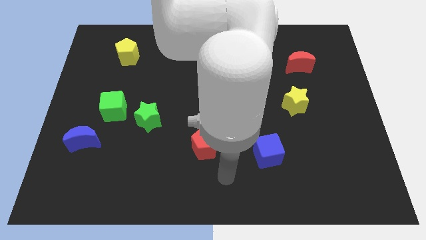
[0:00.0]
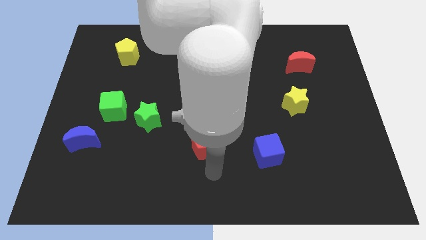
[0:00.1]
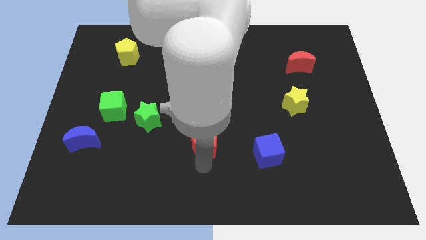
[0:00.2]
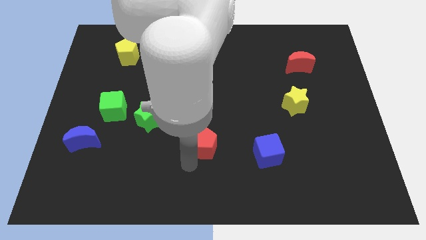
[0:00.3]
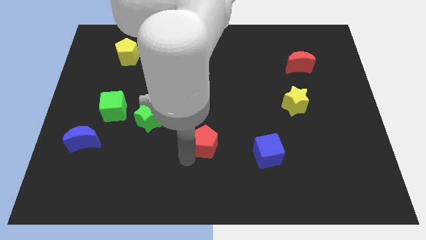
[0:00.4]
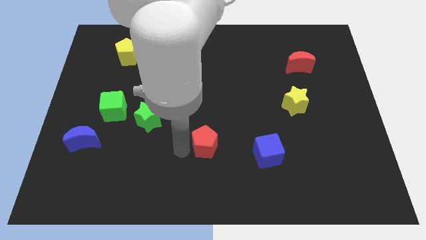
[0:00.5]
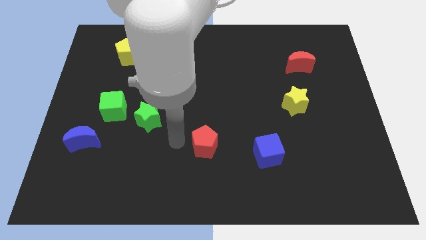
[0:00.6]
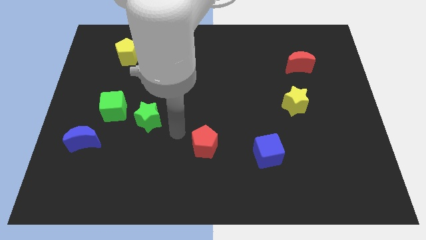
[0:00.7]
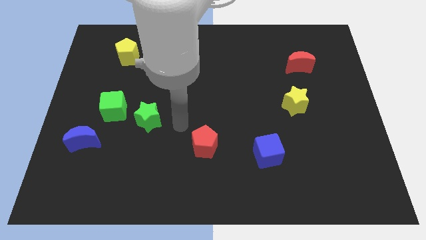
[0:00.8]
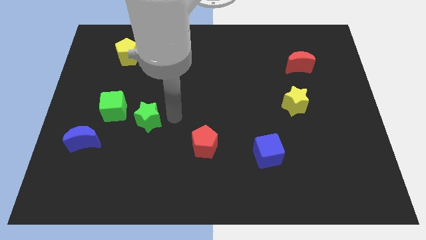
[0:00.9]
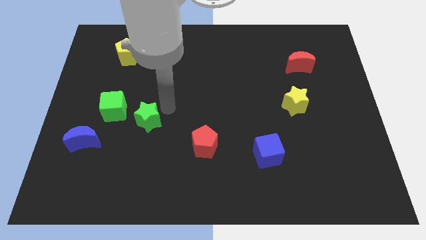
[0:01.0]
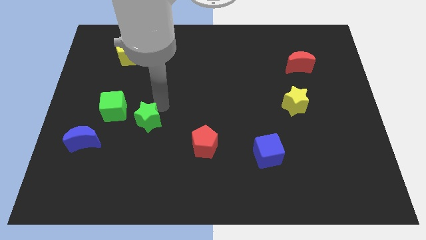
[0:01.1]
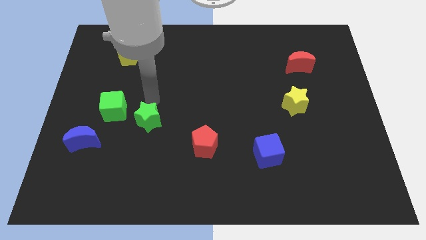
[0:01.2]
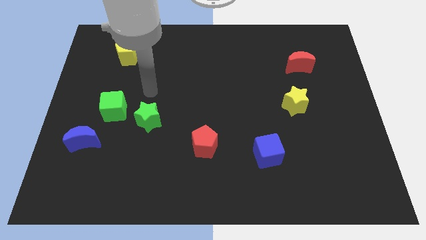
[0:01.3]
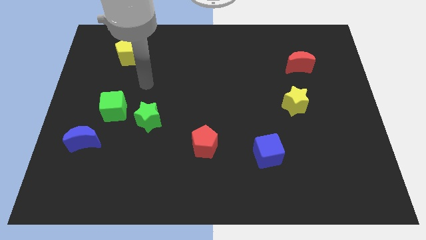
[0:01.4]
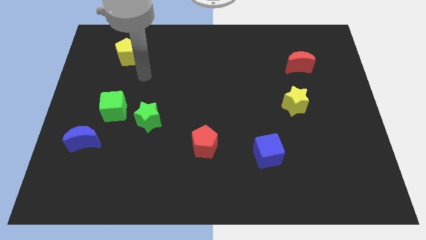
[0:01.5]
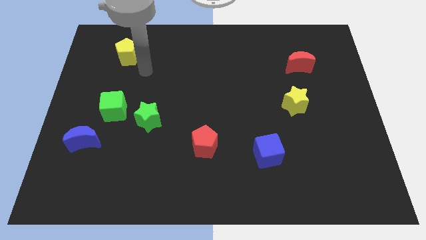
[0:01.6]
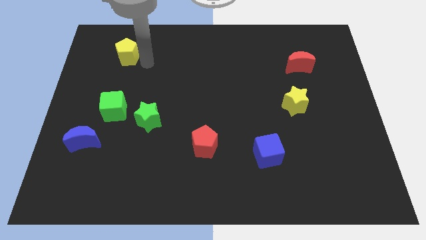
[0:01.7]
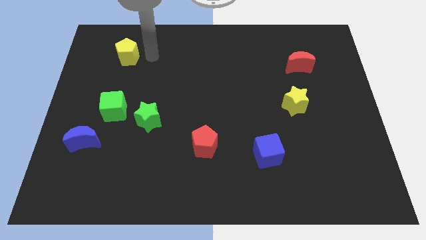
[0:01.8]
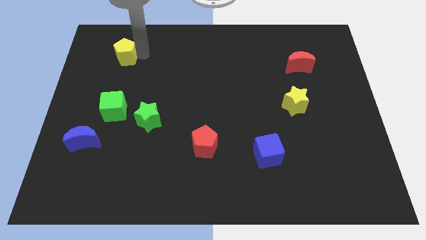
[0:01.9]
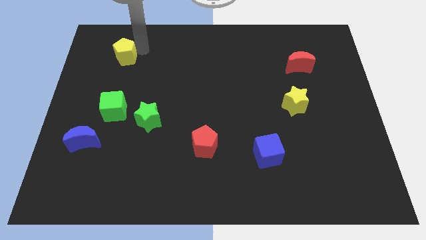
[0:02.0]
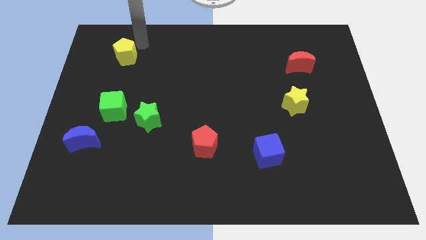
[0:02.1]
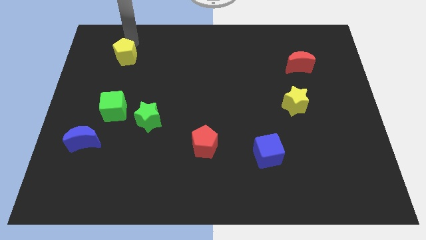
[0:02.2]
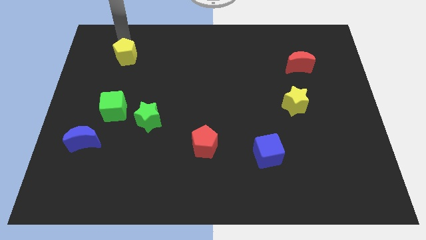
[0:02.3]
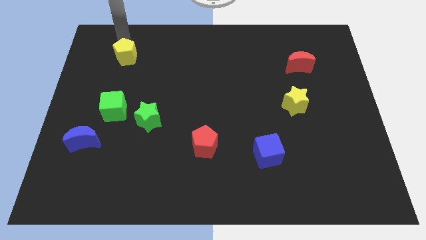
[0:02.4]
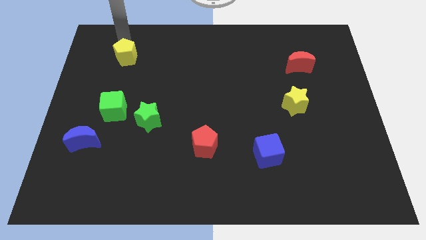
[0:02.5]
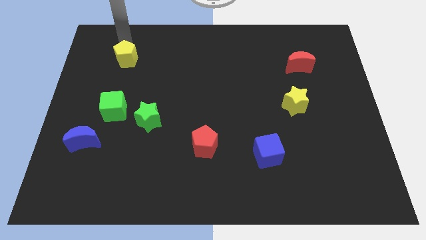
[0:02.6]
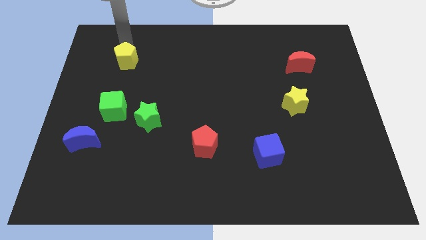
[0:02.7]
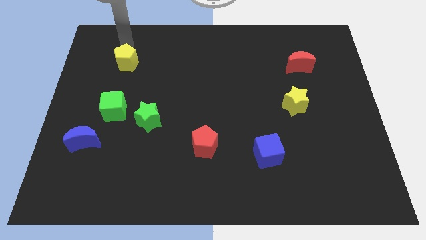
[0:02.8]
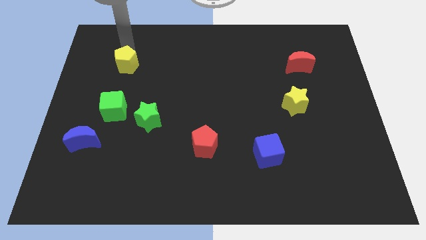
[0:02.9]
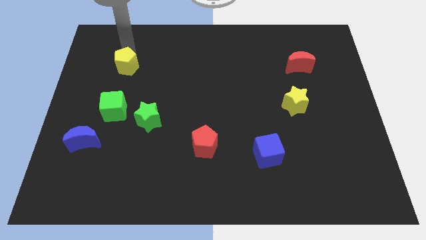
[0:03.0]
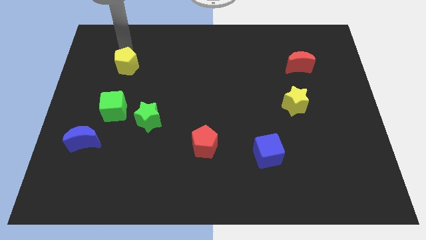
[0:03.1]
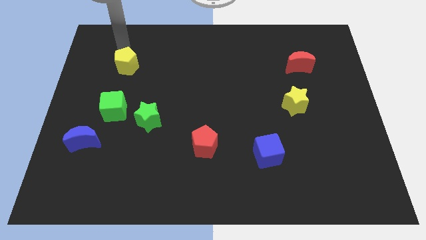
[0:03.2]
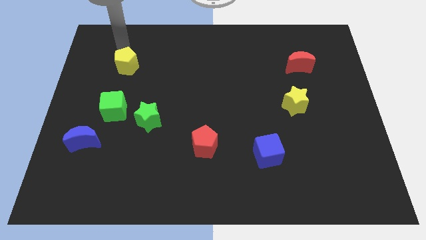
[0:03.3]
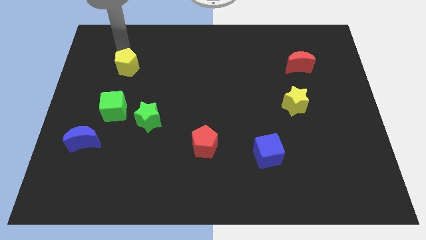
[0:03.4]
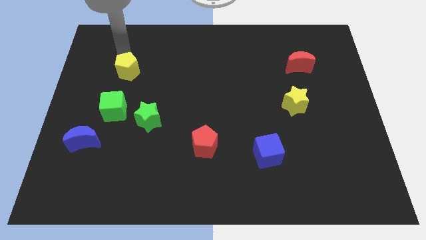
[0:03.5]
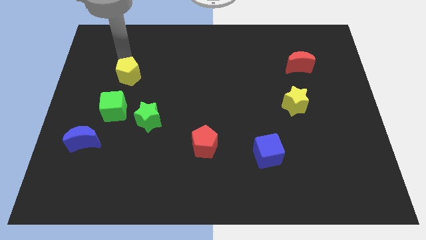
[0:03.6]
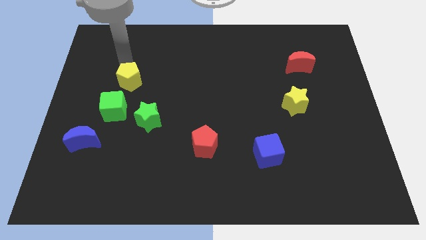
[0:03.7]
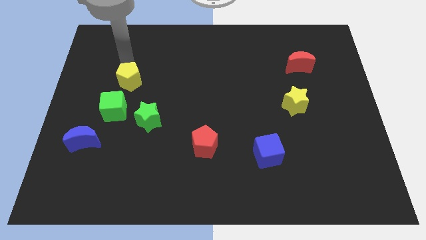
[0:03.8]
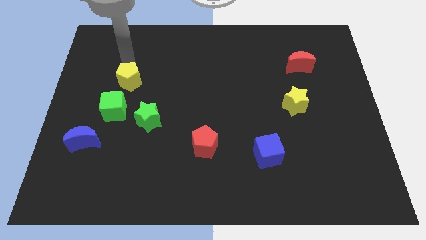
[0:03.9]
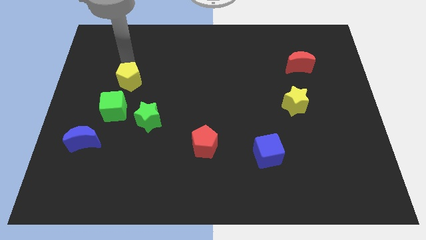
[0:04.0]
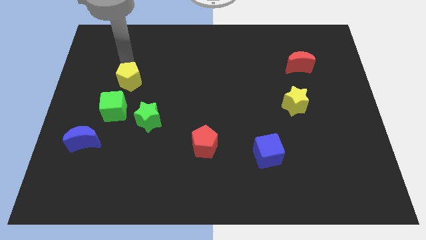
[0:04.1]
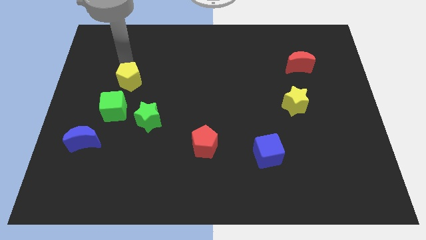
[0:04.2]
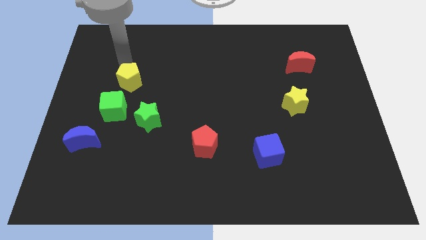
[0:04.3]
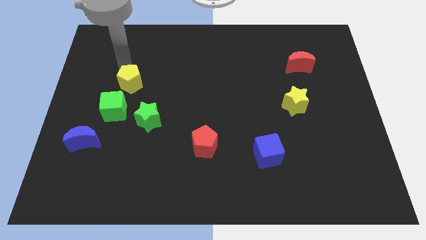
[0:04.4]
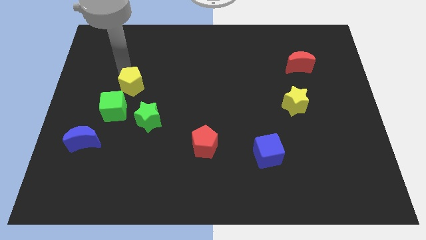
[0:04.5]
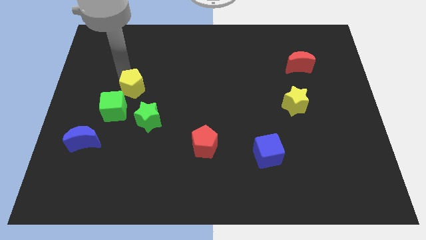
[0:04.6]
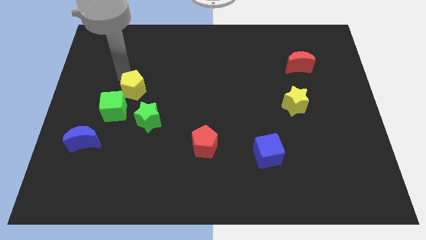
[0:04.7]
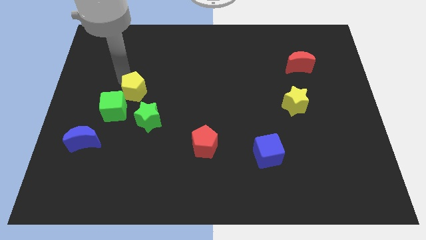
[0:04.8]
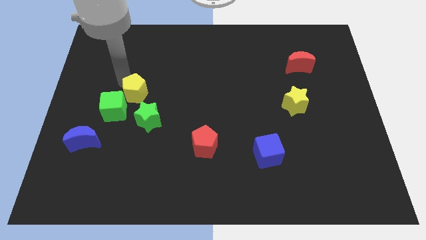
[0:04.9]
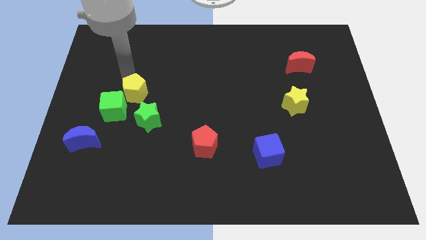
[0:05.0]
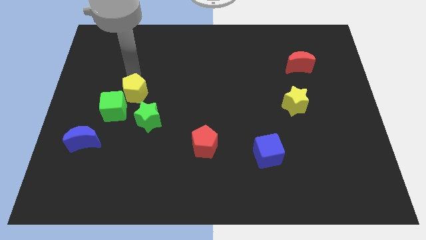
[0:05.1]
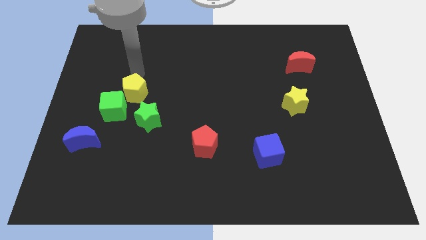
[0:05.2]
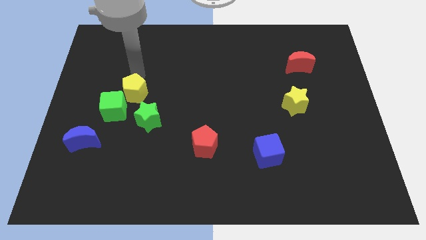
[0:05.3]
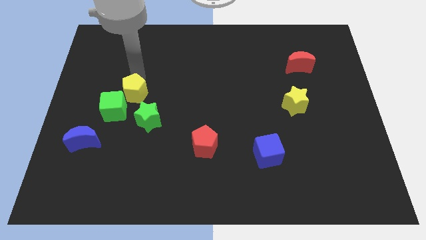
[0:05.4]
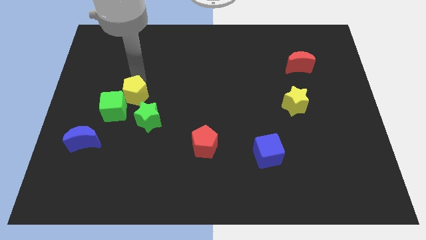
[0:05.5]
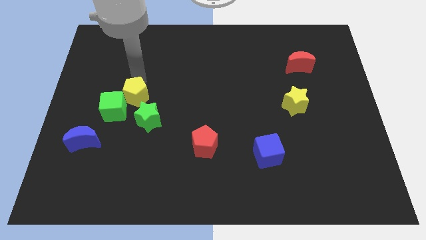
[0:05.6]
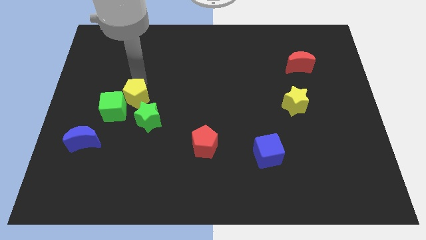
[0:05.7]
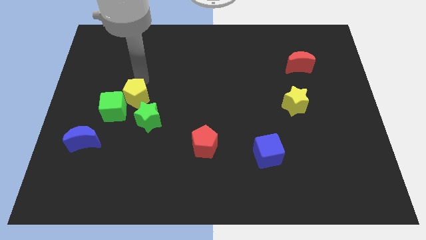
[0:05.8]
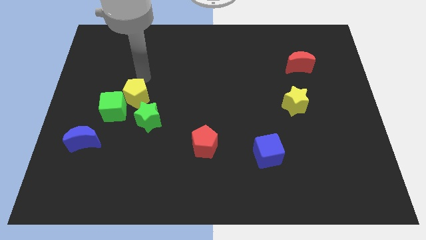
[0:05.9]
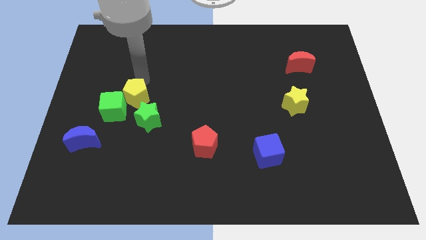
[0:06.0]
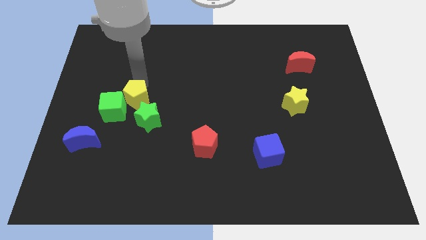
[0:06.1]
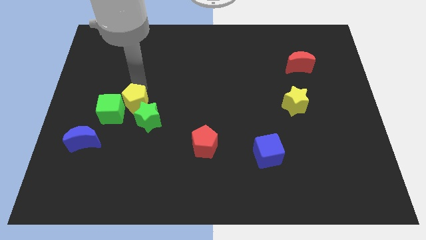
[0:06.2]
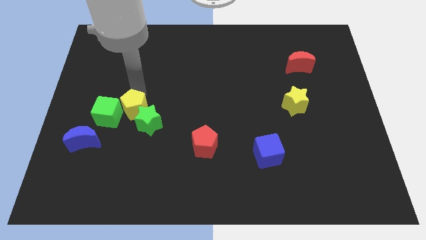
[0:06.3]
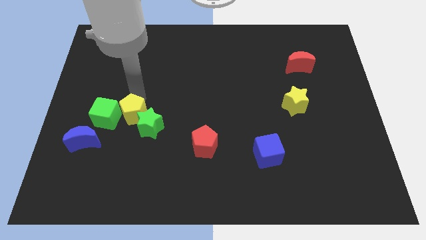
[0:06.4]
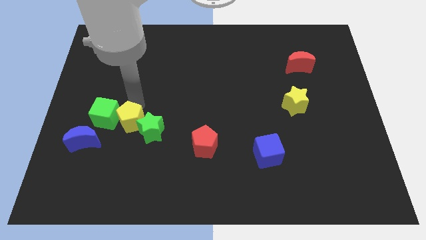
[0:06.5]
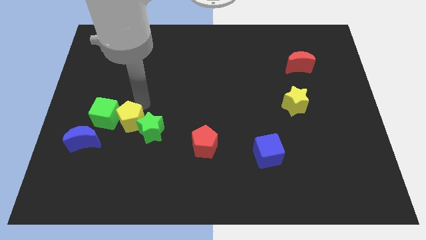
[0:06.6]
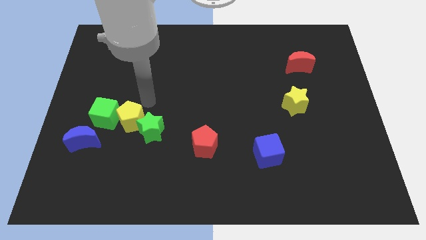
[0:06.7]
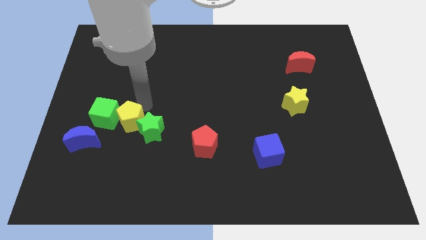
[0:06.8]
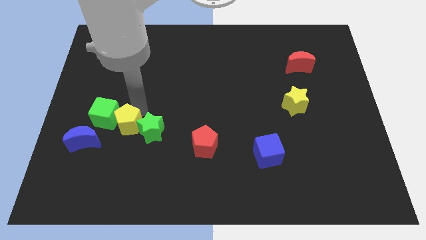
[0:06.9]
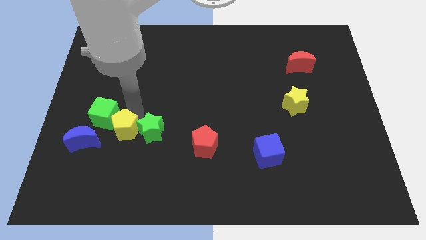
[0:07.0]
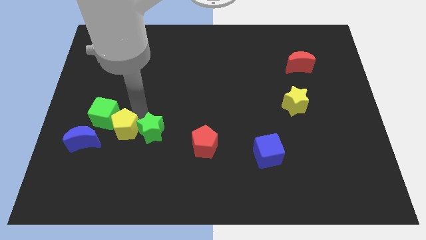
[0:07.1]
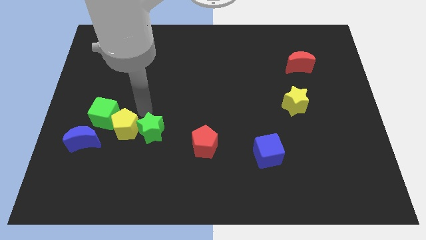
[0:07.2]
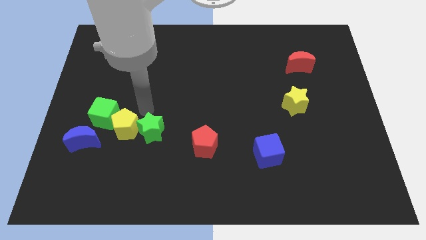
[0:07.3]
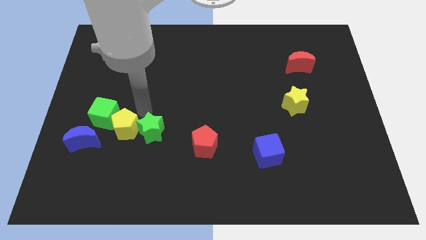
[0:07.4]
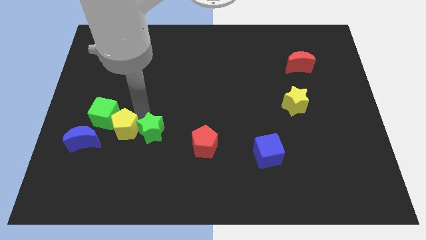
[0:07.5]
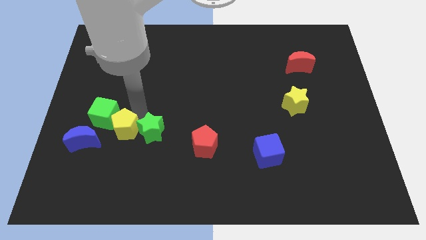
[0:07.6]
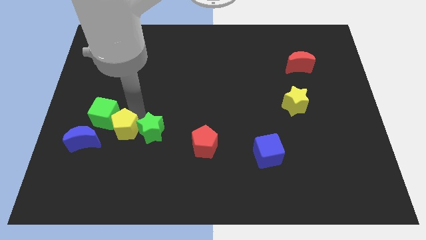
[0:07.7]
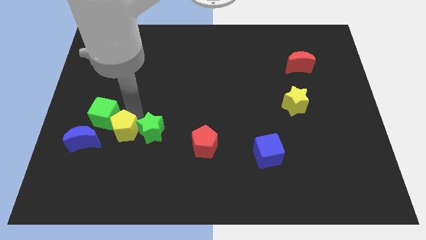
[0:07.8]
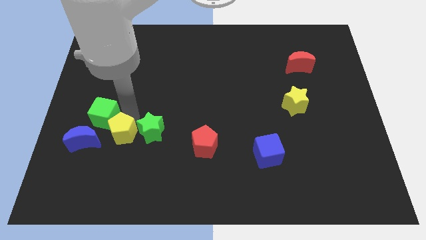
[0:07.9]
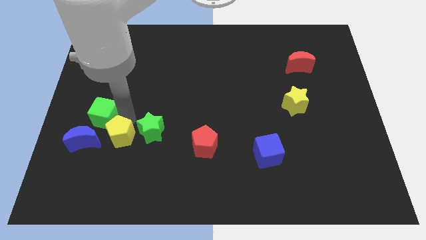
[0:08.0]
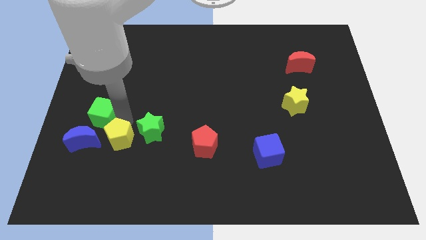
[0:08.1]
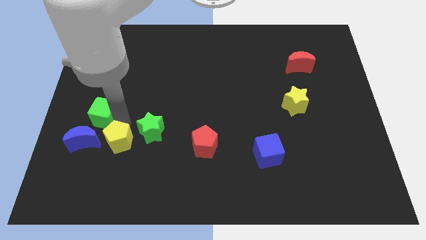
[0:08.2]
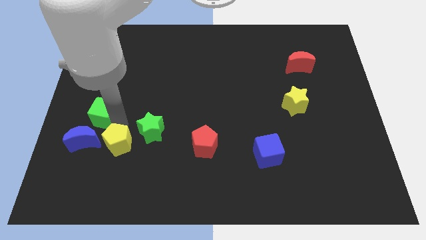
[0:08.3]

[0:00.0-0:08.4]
put the yellow pentagon to the bottom right of the blue moon
